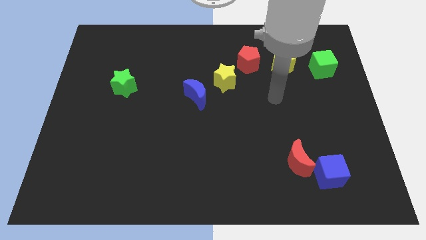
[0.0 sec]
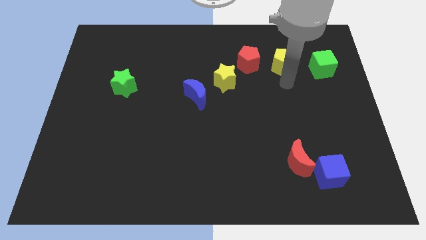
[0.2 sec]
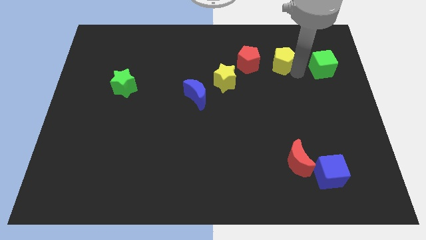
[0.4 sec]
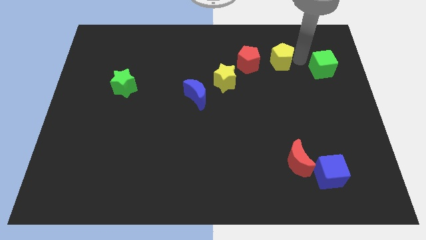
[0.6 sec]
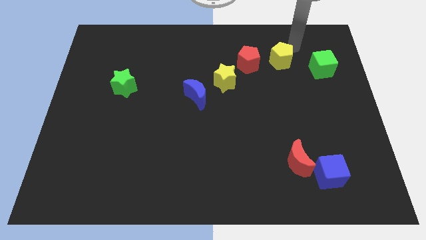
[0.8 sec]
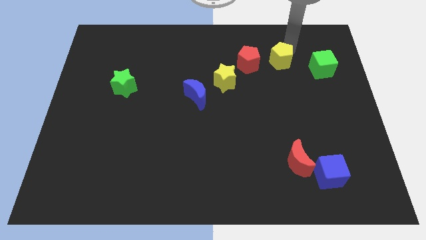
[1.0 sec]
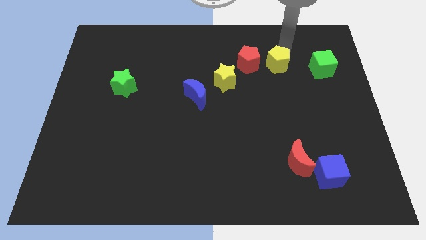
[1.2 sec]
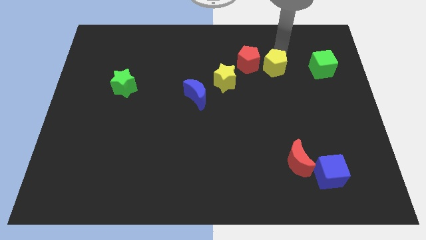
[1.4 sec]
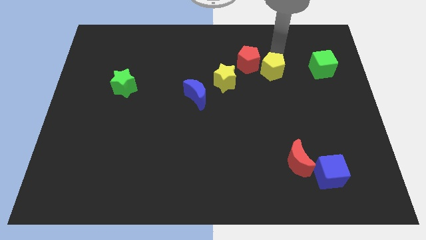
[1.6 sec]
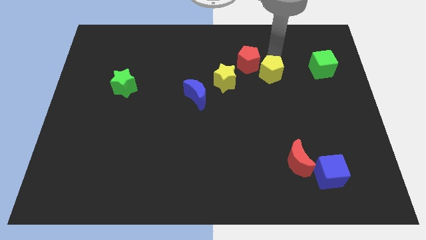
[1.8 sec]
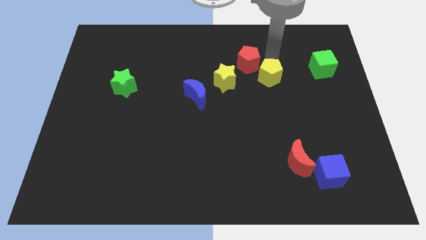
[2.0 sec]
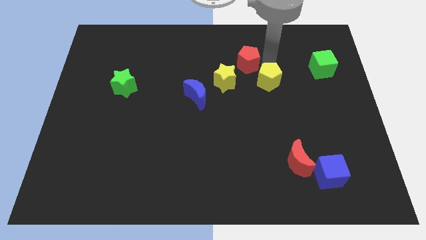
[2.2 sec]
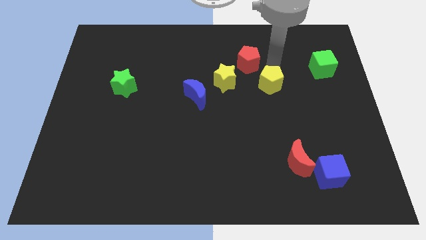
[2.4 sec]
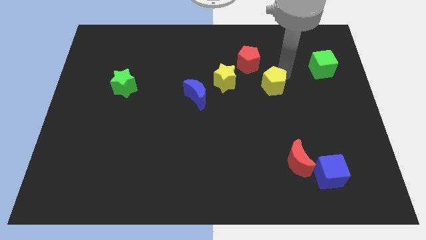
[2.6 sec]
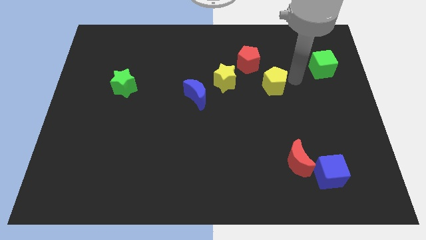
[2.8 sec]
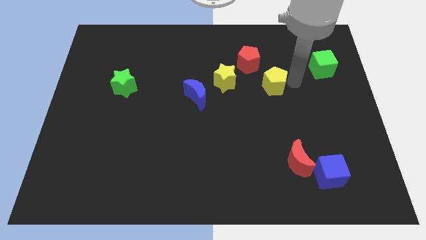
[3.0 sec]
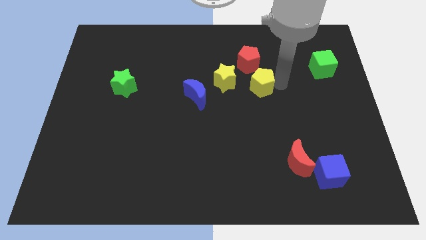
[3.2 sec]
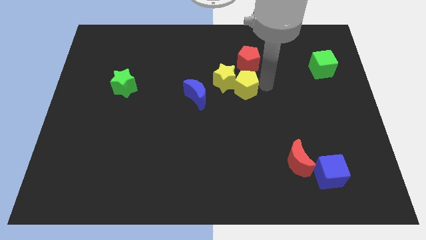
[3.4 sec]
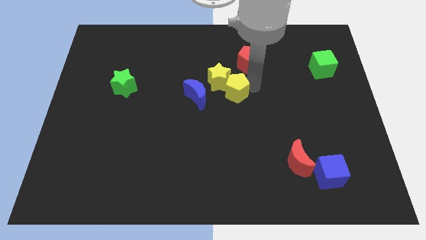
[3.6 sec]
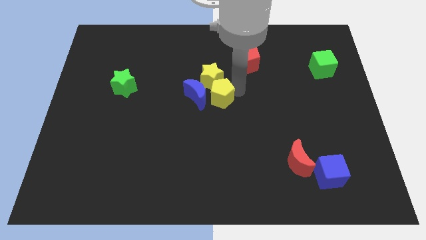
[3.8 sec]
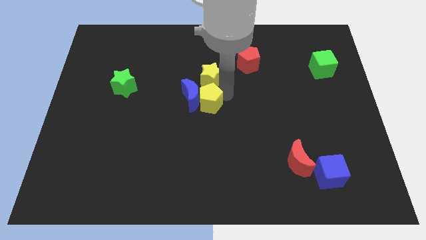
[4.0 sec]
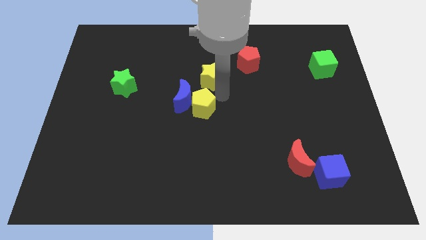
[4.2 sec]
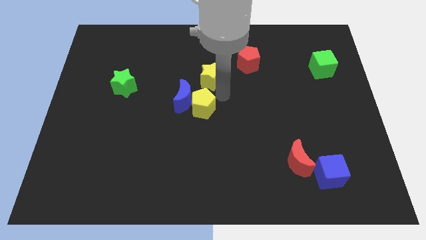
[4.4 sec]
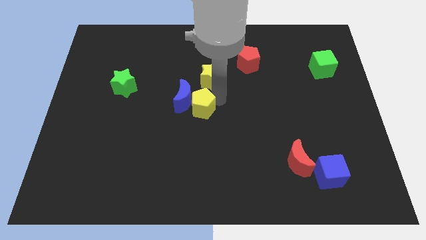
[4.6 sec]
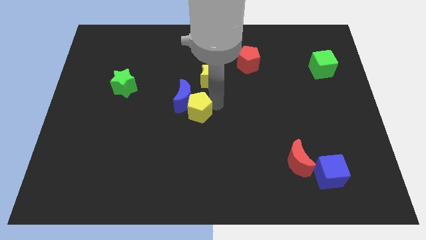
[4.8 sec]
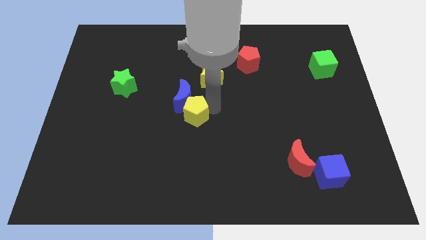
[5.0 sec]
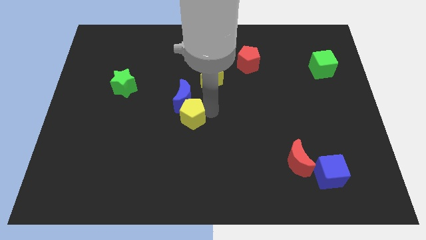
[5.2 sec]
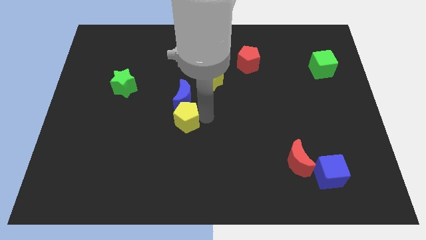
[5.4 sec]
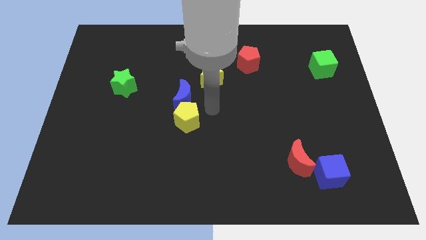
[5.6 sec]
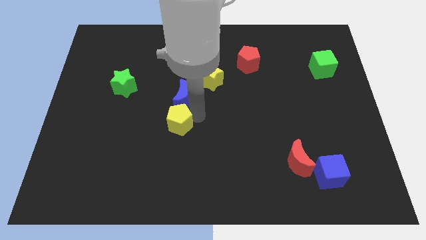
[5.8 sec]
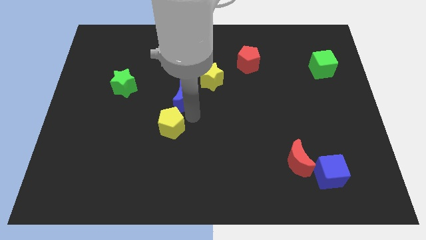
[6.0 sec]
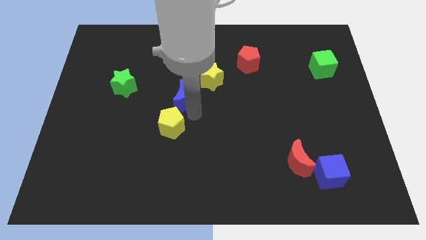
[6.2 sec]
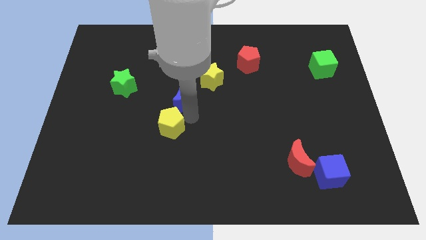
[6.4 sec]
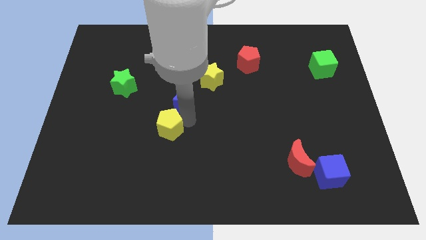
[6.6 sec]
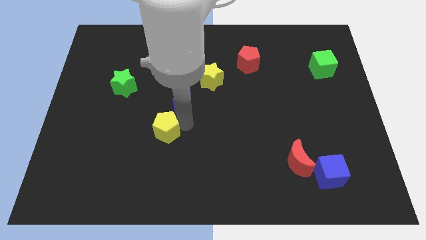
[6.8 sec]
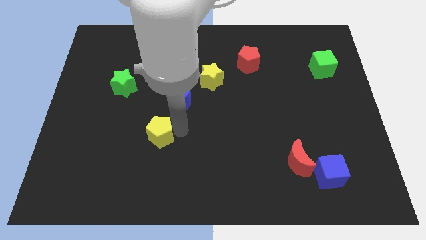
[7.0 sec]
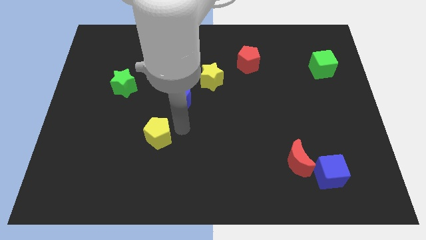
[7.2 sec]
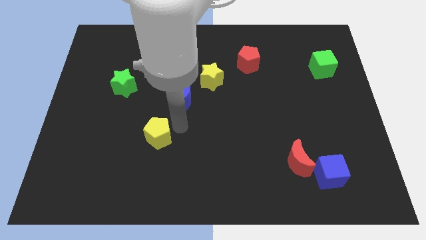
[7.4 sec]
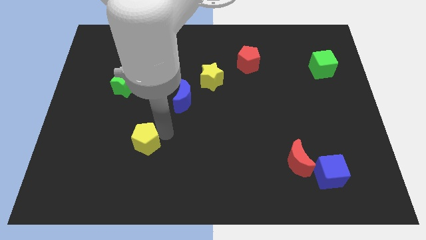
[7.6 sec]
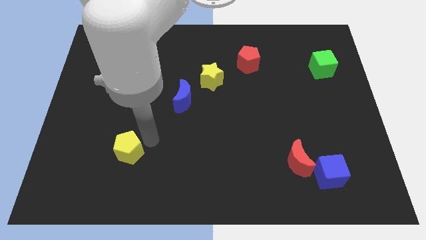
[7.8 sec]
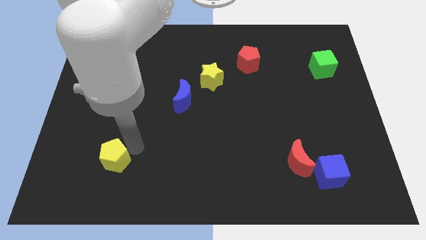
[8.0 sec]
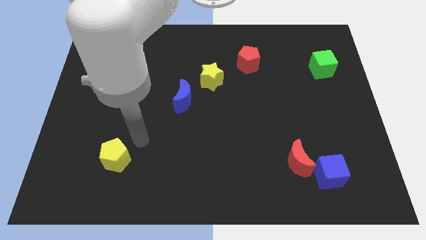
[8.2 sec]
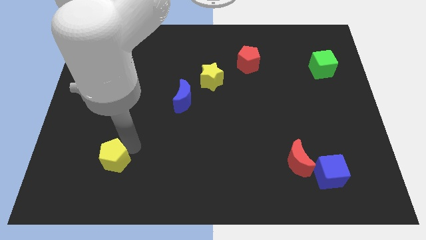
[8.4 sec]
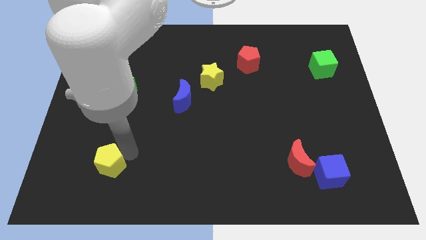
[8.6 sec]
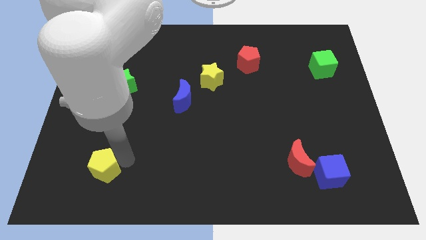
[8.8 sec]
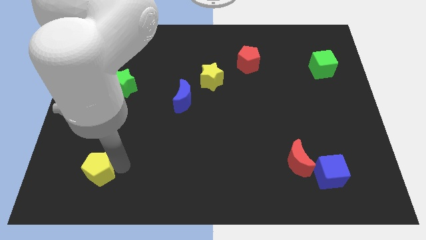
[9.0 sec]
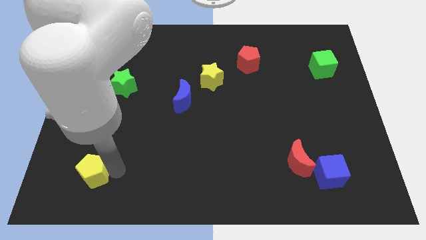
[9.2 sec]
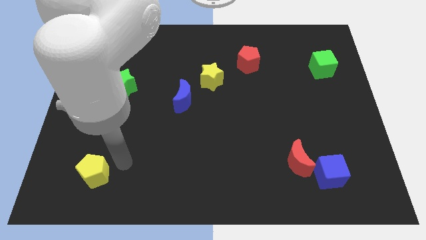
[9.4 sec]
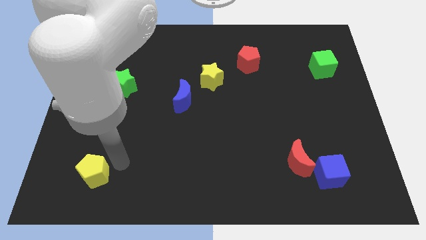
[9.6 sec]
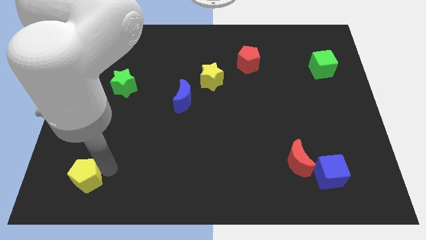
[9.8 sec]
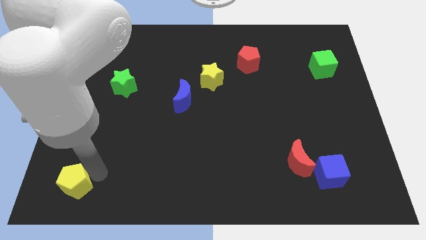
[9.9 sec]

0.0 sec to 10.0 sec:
push the yellow pentagon to the bottom left corner

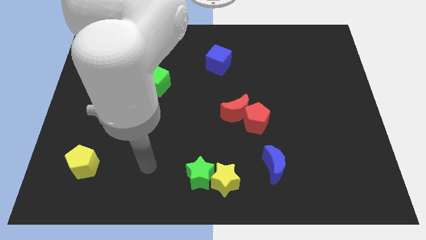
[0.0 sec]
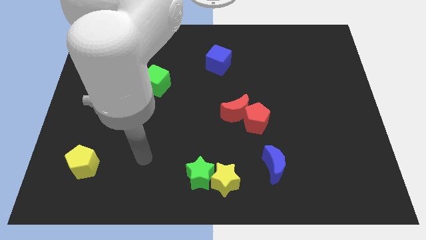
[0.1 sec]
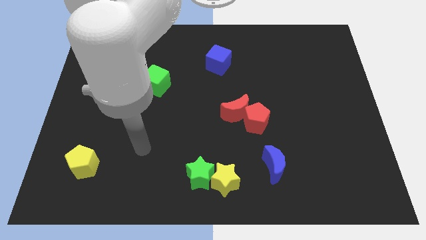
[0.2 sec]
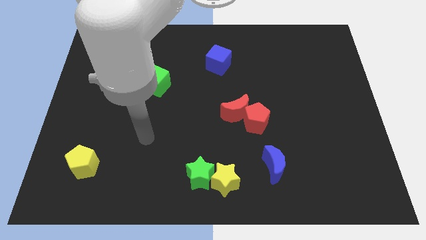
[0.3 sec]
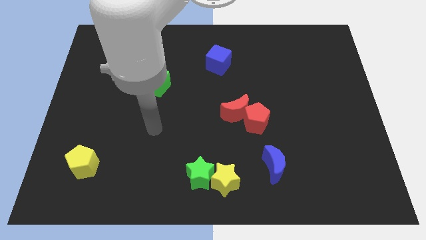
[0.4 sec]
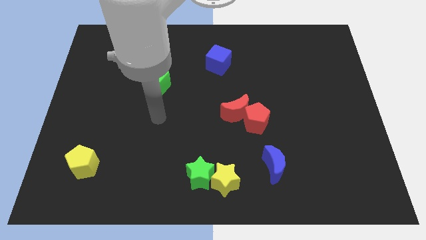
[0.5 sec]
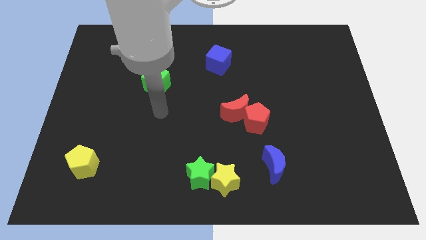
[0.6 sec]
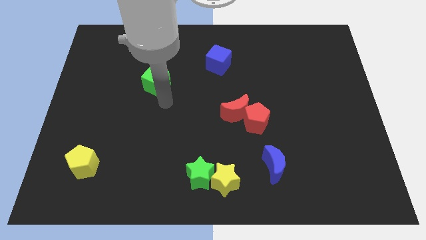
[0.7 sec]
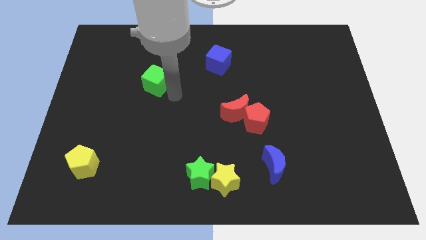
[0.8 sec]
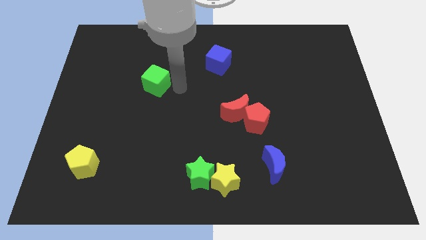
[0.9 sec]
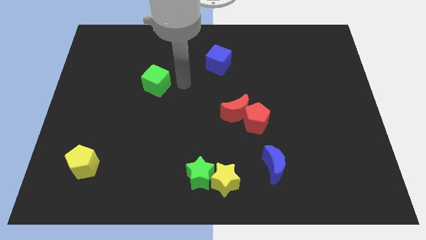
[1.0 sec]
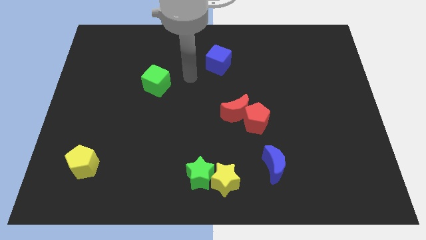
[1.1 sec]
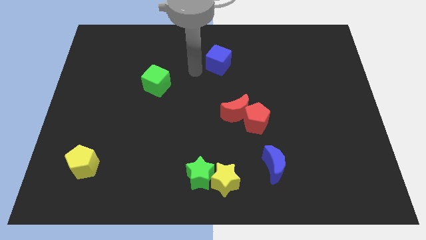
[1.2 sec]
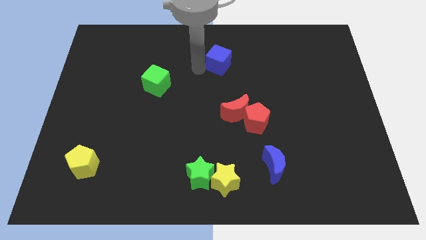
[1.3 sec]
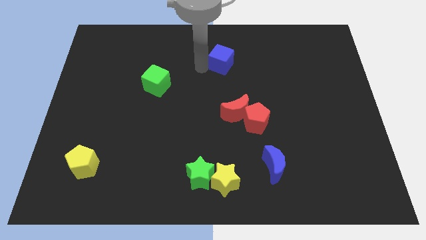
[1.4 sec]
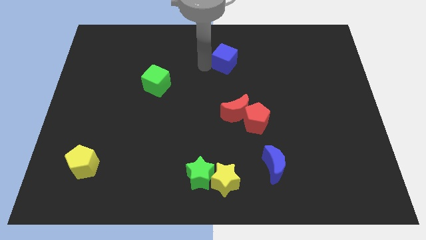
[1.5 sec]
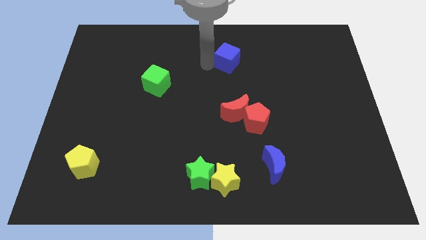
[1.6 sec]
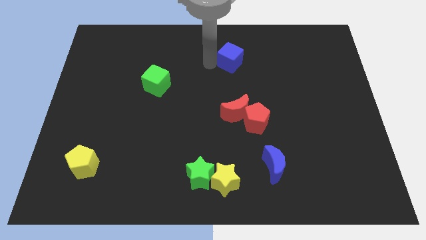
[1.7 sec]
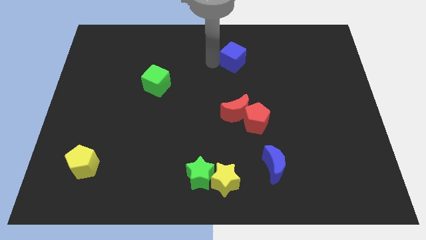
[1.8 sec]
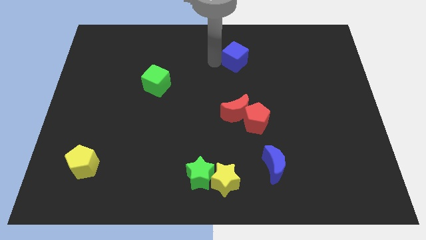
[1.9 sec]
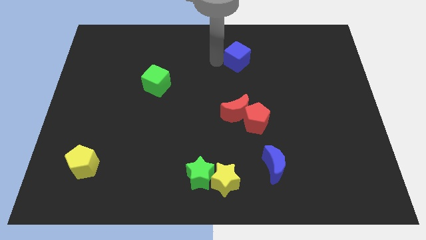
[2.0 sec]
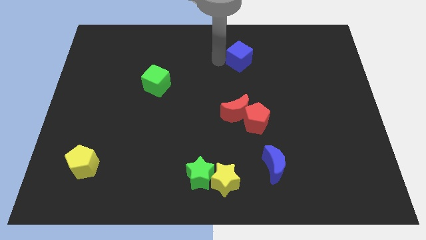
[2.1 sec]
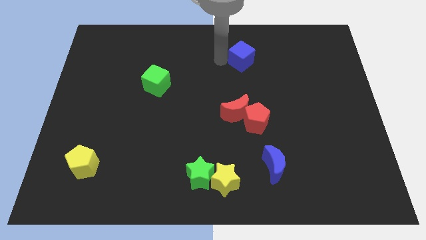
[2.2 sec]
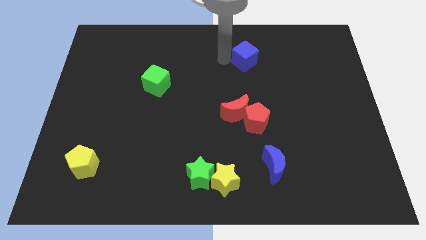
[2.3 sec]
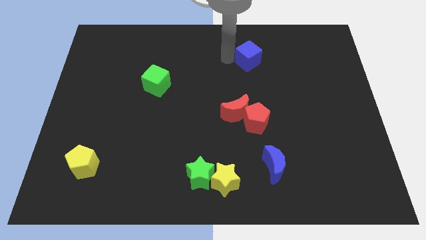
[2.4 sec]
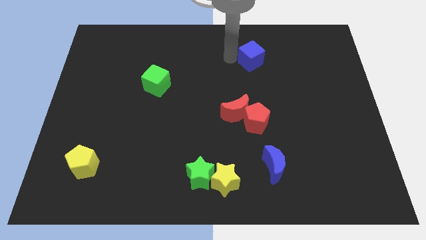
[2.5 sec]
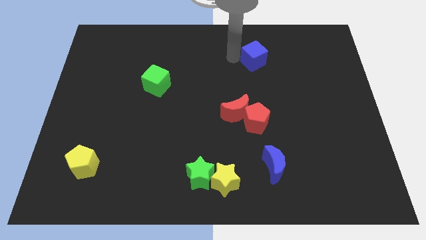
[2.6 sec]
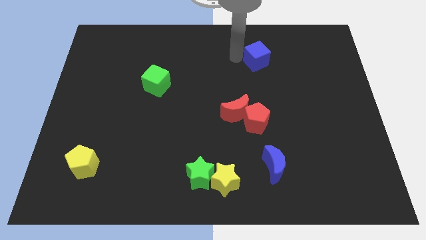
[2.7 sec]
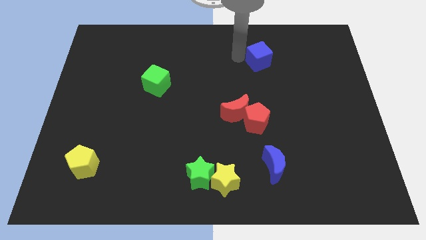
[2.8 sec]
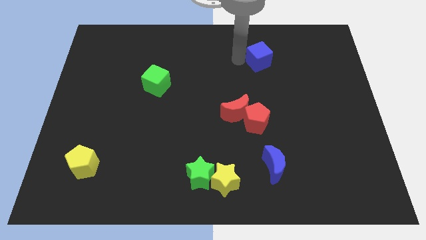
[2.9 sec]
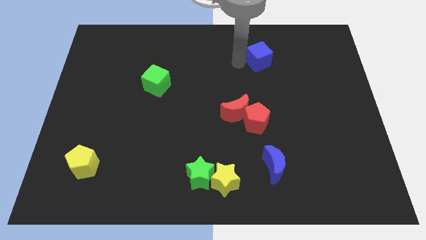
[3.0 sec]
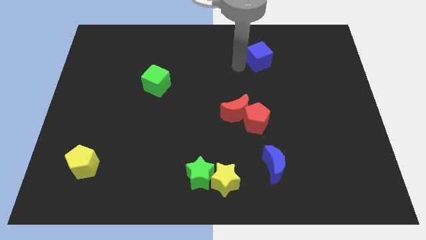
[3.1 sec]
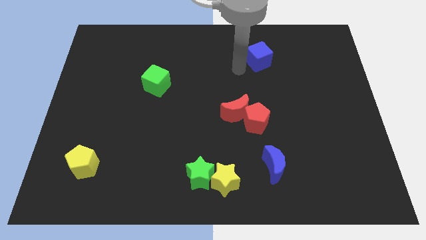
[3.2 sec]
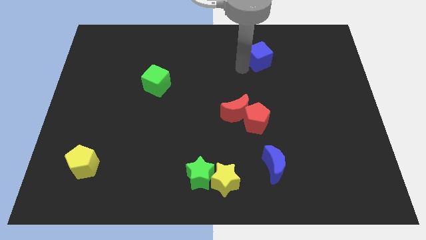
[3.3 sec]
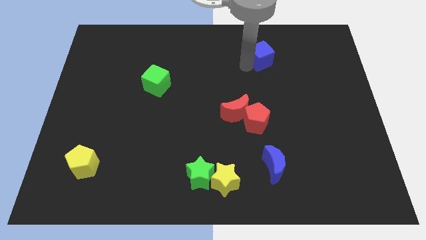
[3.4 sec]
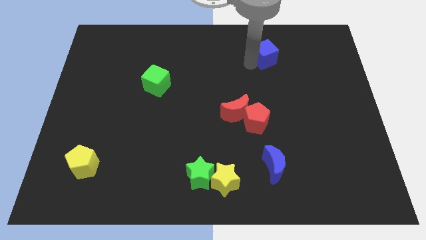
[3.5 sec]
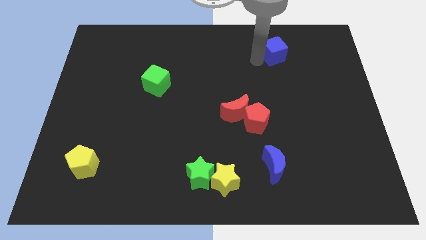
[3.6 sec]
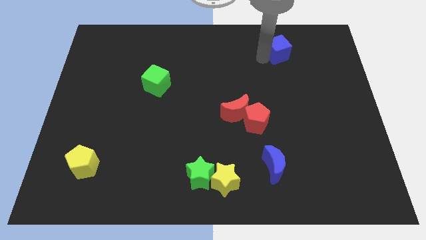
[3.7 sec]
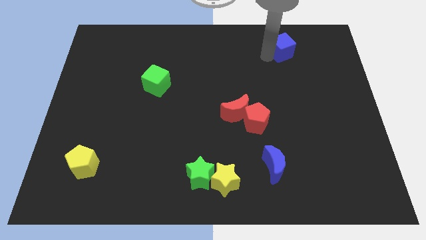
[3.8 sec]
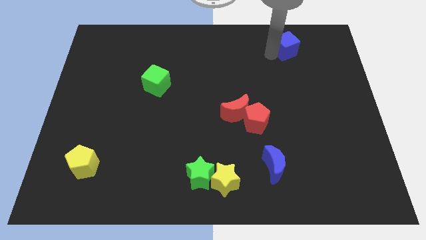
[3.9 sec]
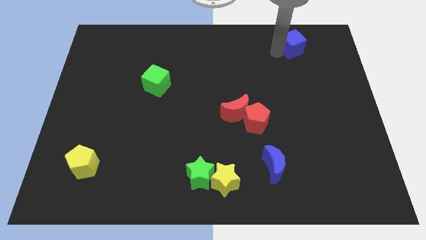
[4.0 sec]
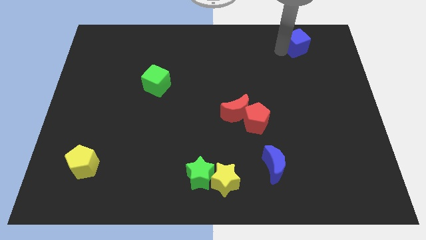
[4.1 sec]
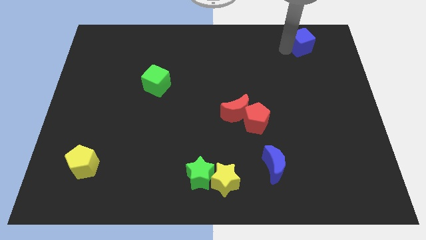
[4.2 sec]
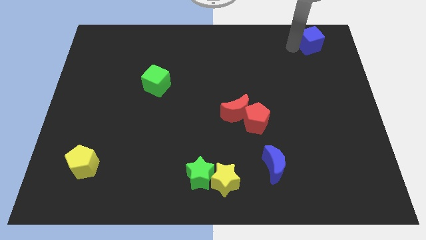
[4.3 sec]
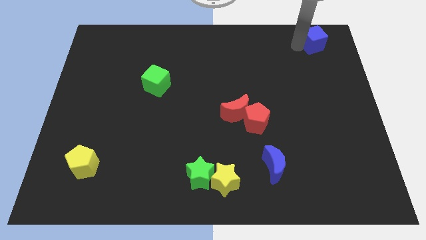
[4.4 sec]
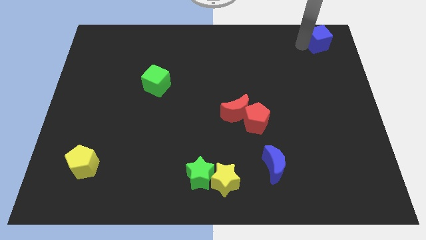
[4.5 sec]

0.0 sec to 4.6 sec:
push the blue cube to the top right
